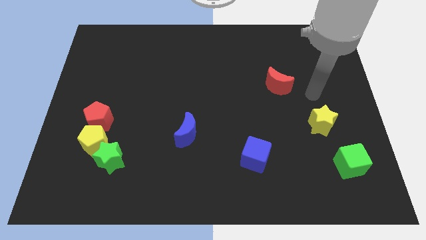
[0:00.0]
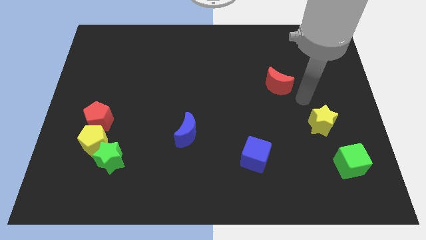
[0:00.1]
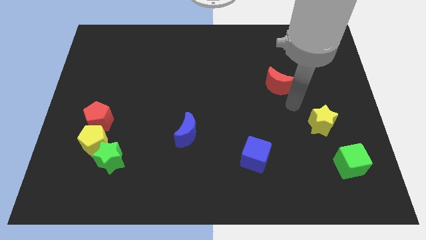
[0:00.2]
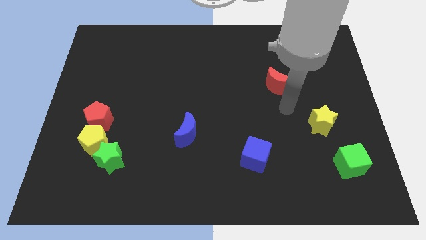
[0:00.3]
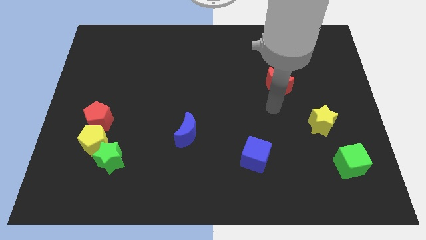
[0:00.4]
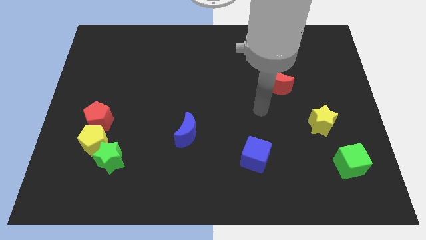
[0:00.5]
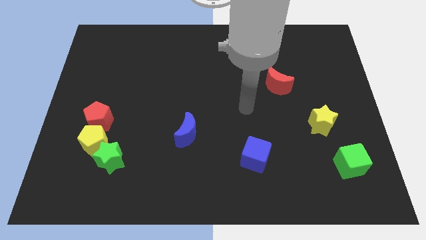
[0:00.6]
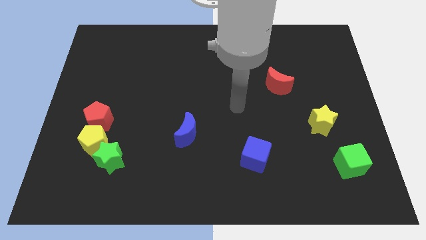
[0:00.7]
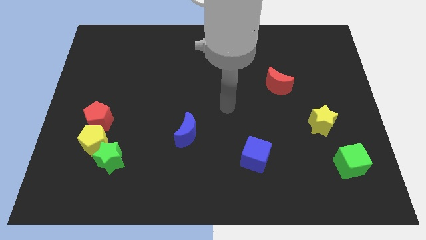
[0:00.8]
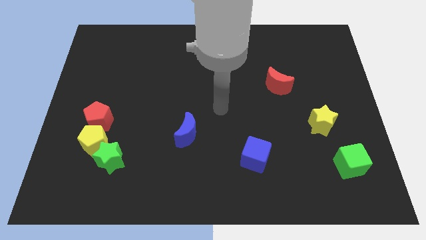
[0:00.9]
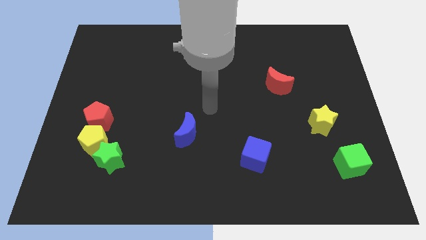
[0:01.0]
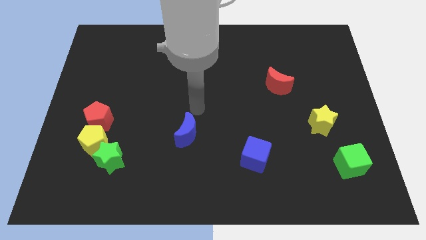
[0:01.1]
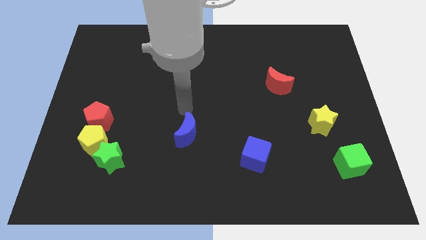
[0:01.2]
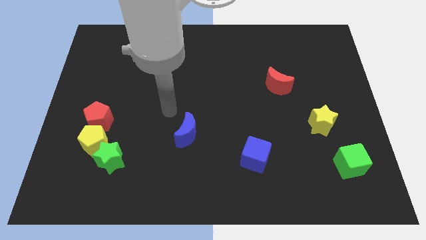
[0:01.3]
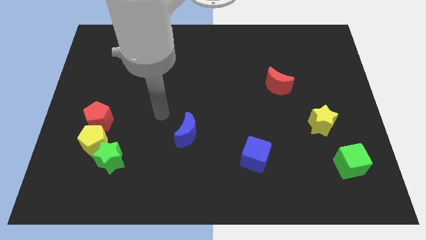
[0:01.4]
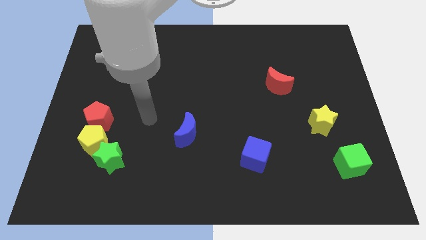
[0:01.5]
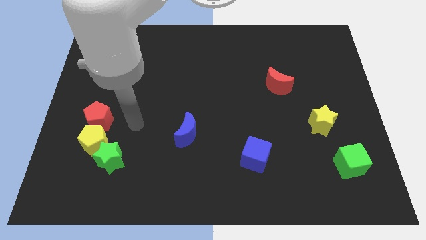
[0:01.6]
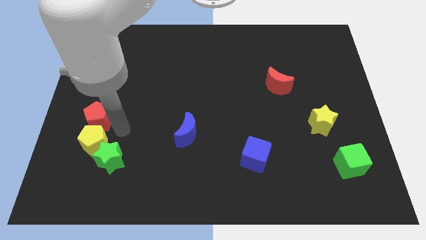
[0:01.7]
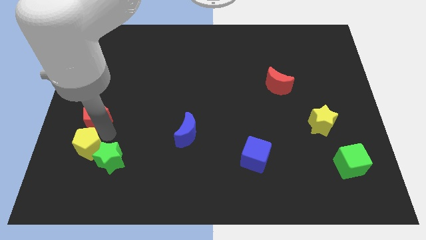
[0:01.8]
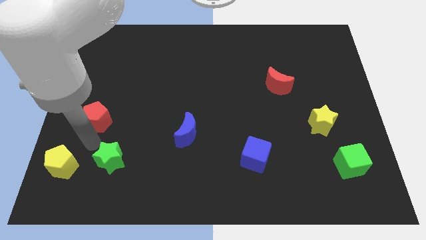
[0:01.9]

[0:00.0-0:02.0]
separate the green star from the yellow pentagon

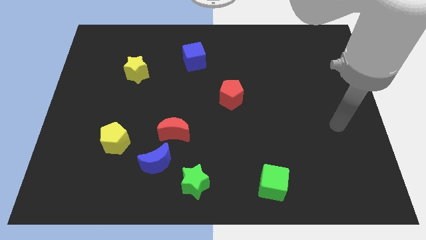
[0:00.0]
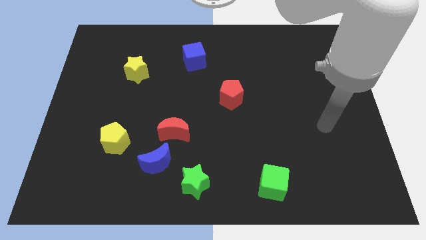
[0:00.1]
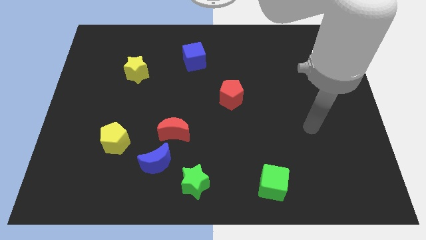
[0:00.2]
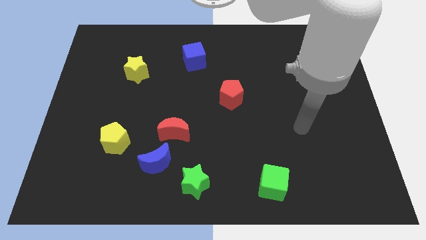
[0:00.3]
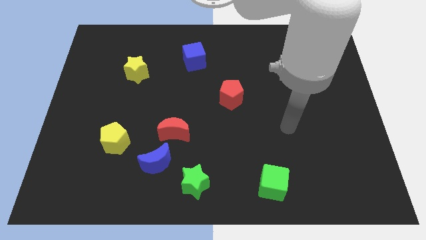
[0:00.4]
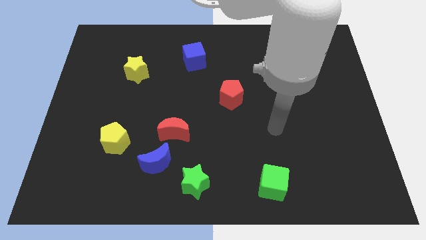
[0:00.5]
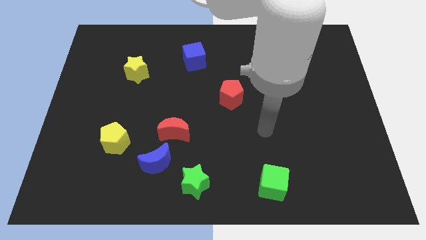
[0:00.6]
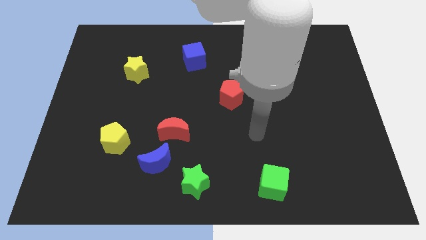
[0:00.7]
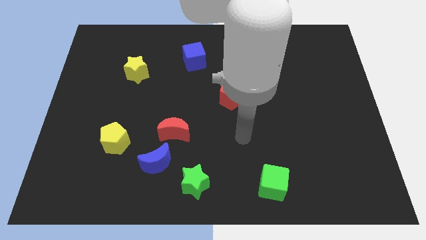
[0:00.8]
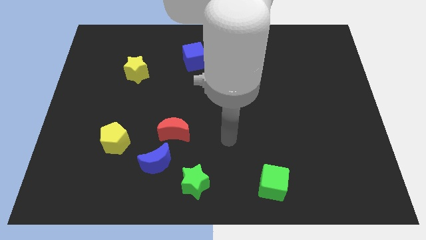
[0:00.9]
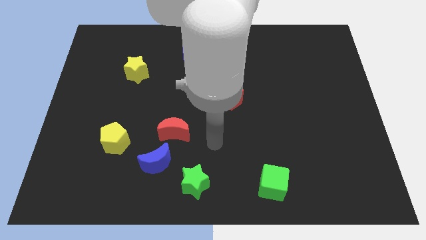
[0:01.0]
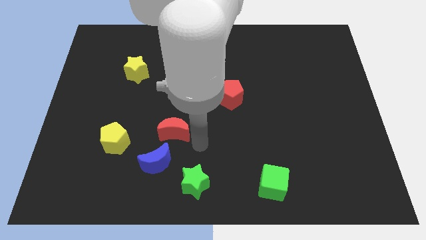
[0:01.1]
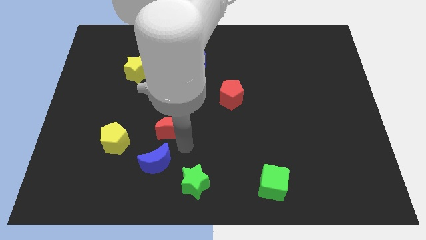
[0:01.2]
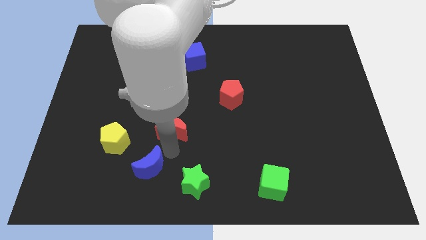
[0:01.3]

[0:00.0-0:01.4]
separate the red moon from the blue moon

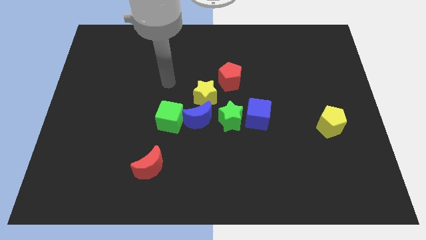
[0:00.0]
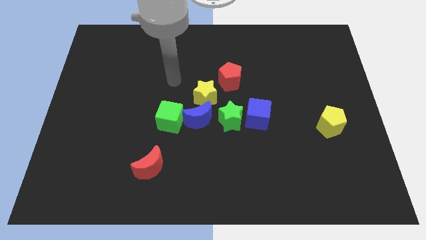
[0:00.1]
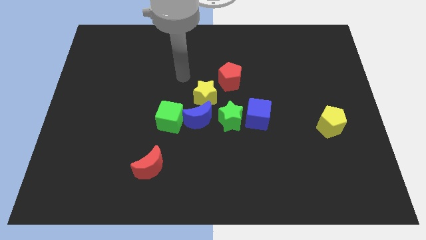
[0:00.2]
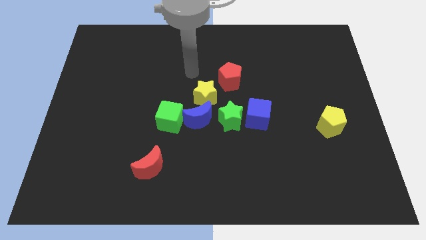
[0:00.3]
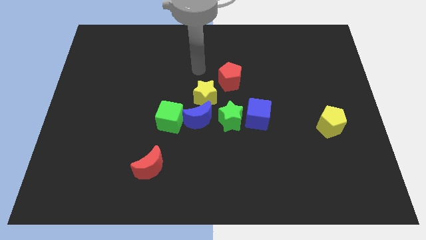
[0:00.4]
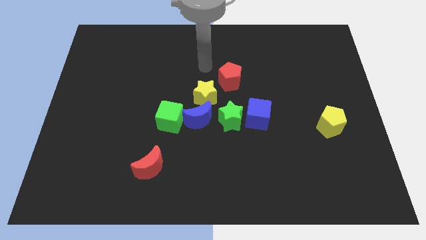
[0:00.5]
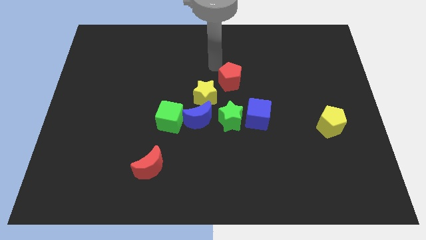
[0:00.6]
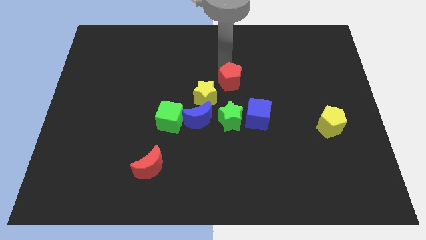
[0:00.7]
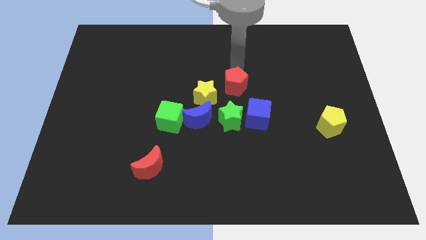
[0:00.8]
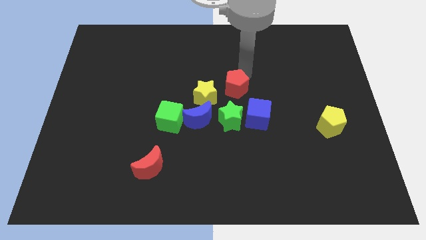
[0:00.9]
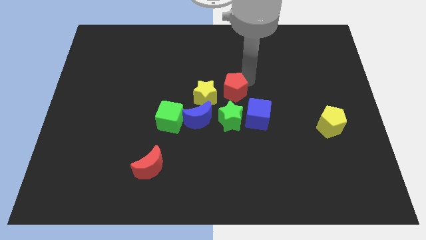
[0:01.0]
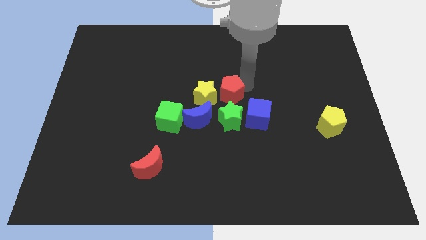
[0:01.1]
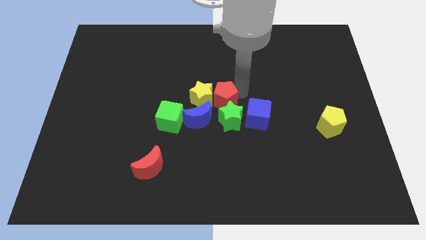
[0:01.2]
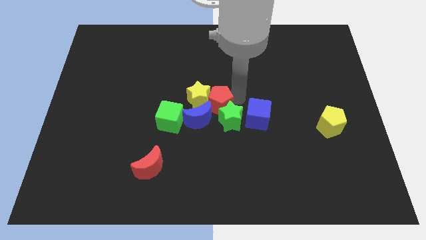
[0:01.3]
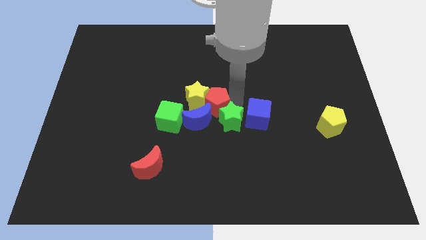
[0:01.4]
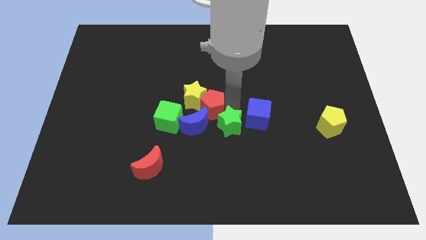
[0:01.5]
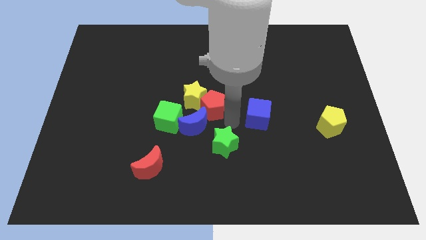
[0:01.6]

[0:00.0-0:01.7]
separate the blue cube from the green star

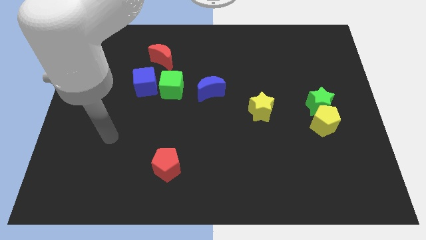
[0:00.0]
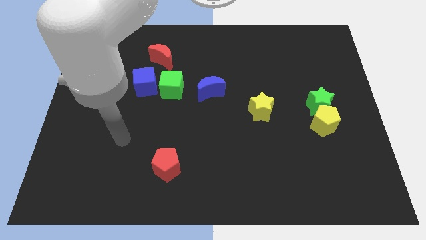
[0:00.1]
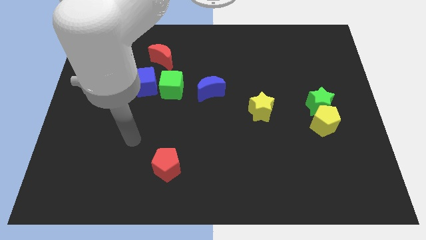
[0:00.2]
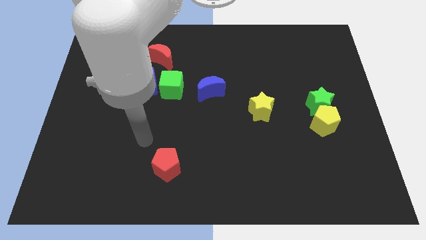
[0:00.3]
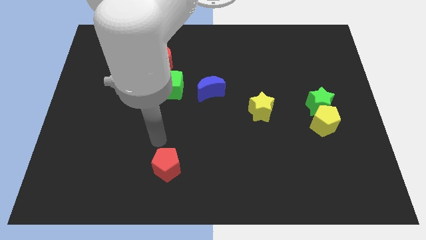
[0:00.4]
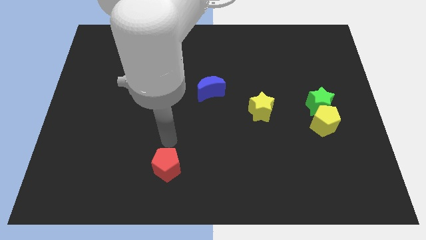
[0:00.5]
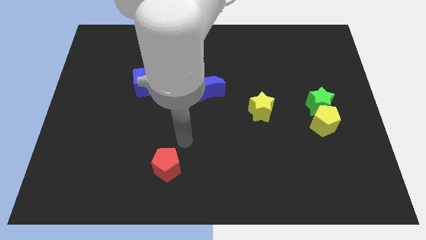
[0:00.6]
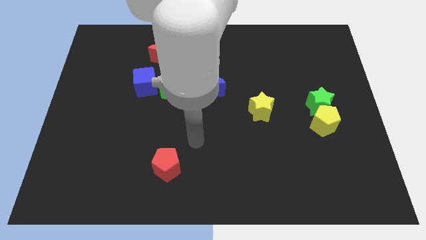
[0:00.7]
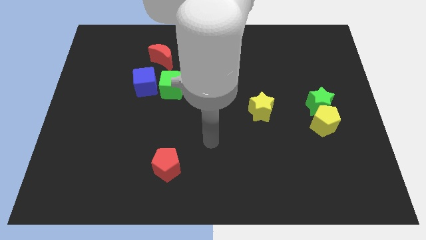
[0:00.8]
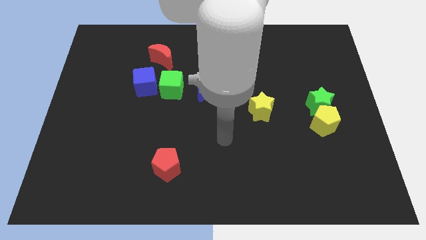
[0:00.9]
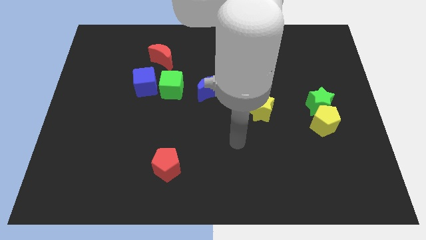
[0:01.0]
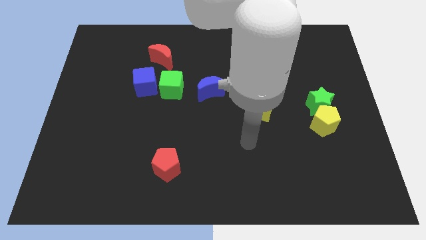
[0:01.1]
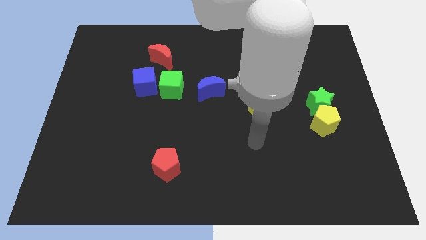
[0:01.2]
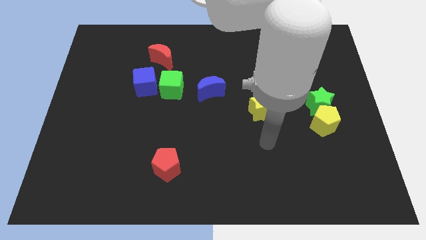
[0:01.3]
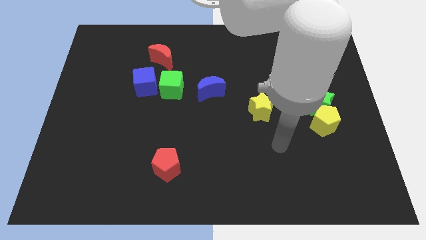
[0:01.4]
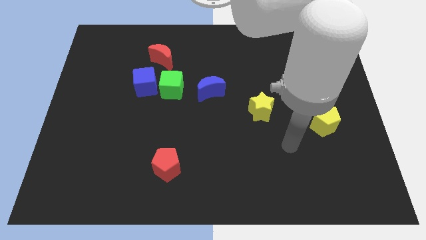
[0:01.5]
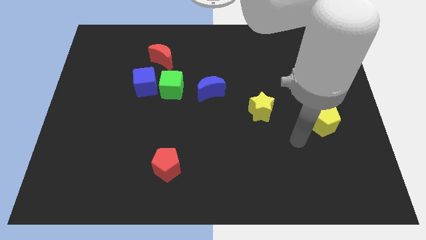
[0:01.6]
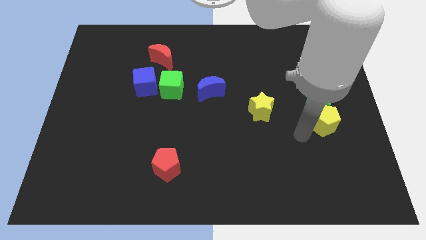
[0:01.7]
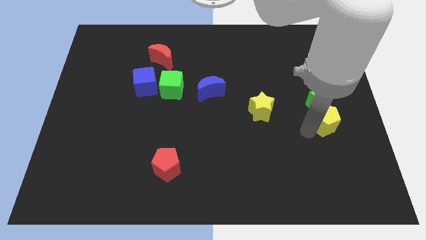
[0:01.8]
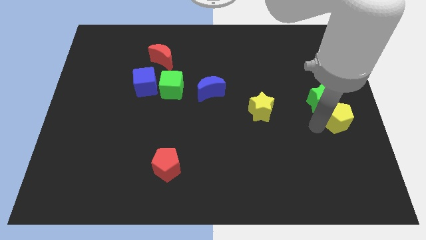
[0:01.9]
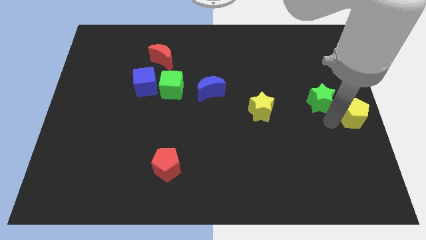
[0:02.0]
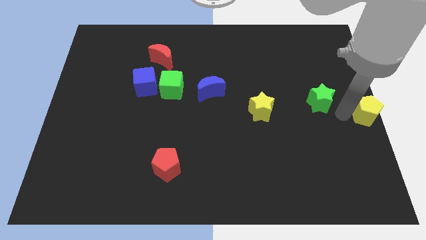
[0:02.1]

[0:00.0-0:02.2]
pull the green star apart from the yellow pentagon

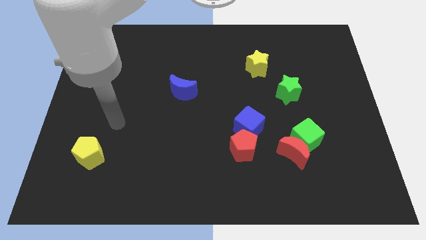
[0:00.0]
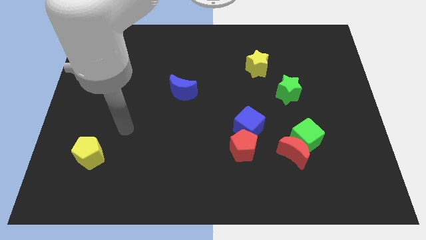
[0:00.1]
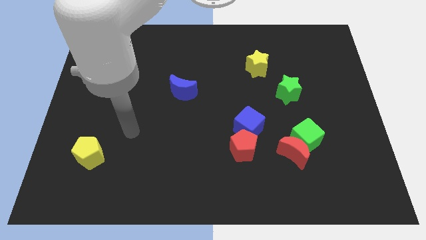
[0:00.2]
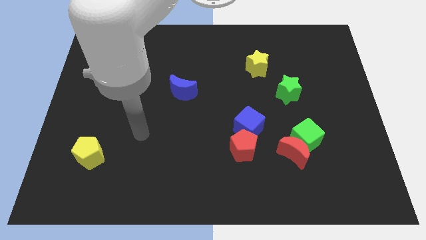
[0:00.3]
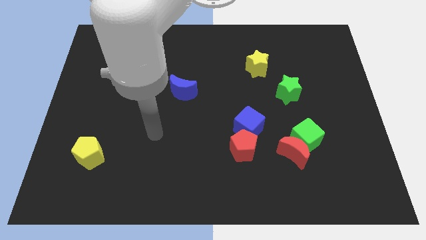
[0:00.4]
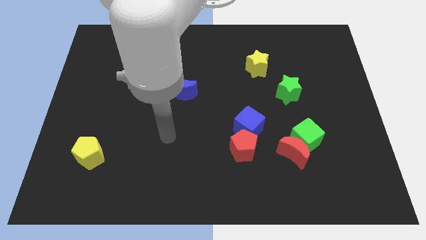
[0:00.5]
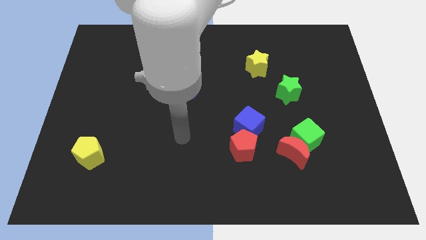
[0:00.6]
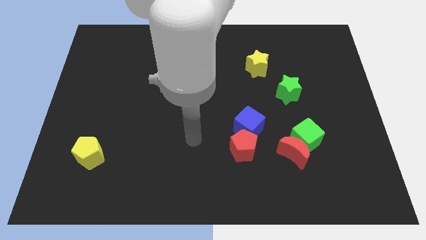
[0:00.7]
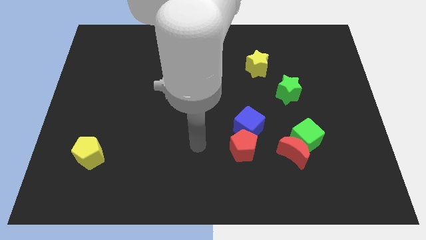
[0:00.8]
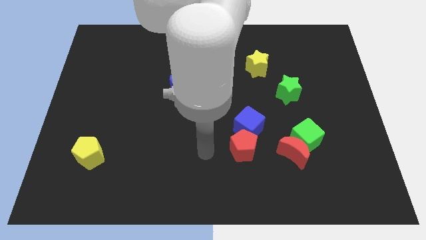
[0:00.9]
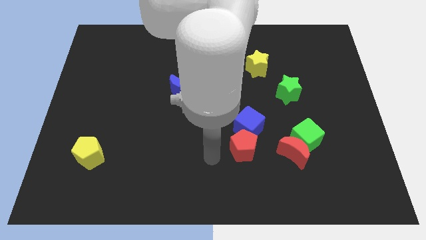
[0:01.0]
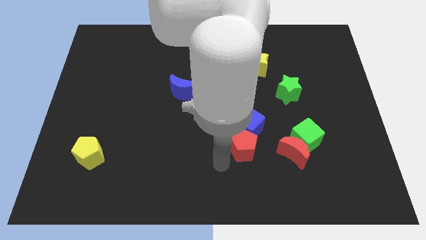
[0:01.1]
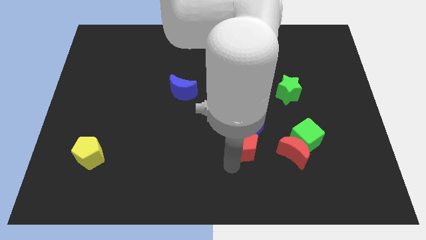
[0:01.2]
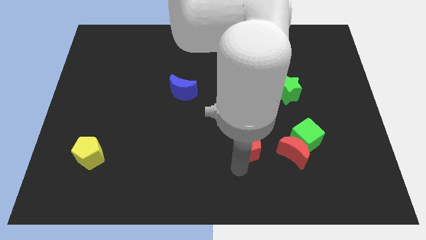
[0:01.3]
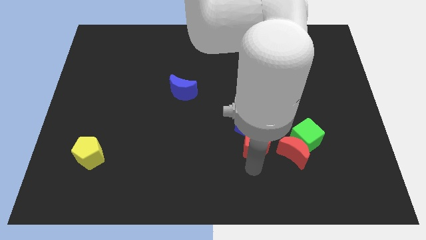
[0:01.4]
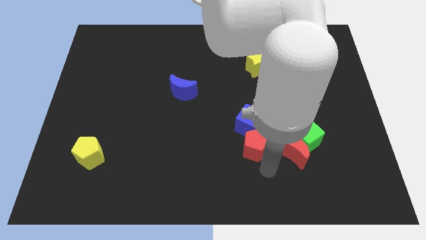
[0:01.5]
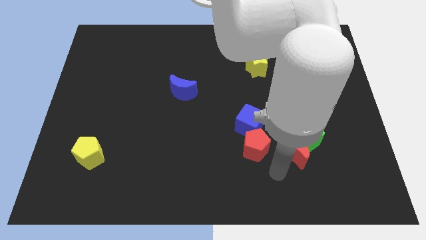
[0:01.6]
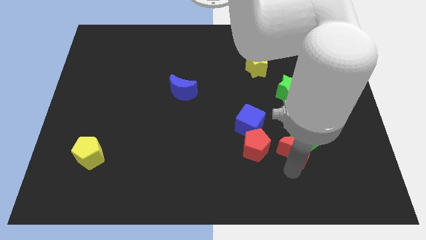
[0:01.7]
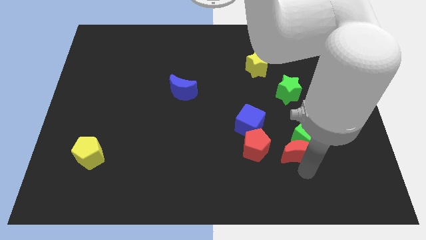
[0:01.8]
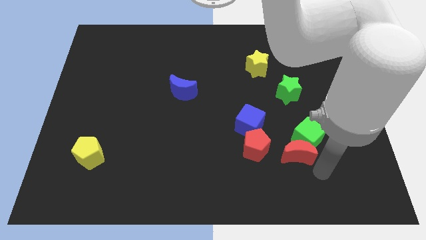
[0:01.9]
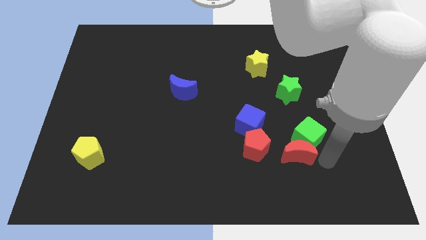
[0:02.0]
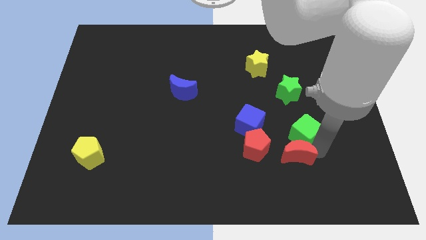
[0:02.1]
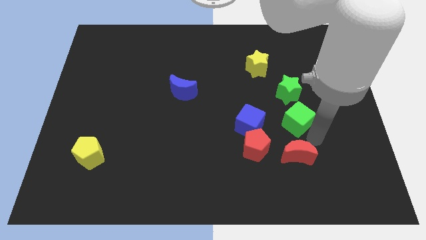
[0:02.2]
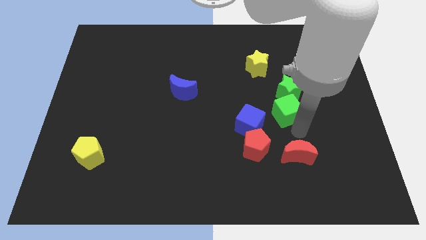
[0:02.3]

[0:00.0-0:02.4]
pull the red moon apart from the green cube
